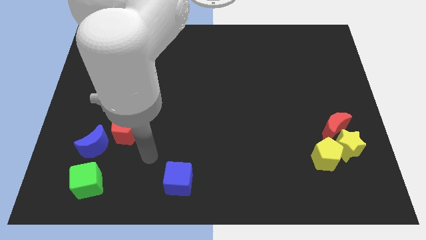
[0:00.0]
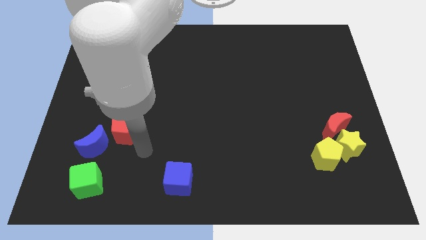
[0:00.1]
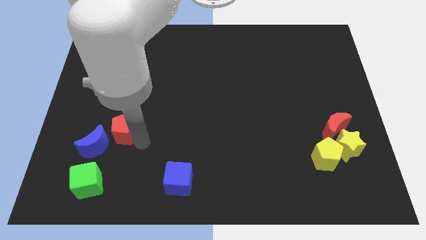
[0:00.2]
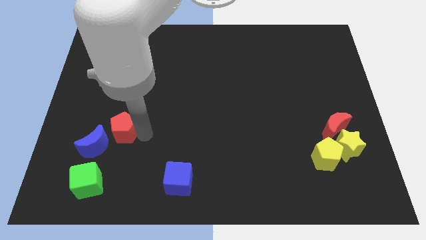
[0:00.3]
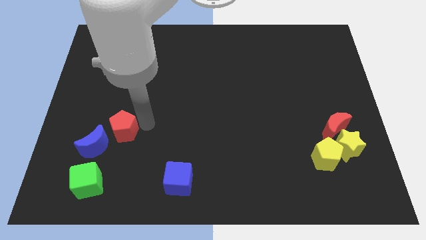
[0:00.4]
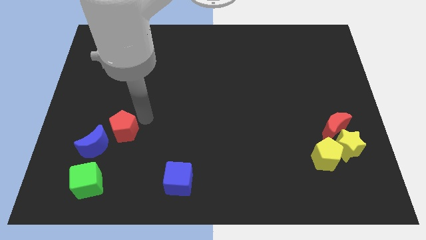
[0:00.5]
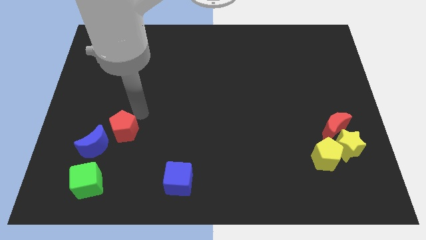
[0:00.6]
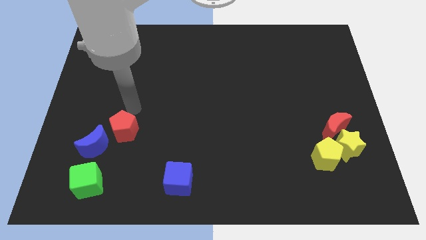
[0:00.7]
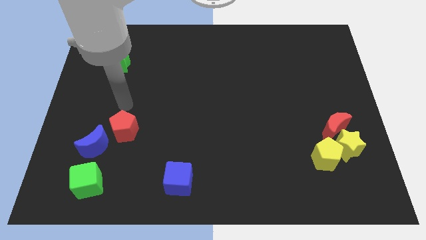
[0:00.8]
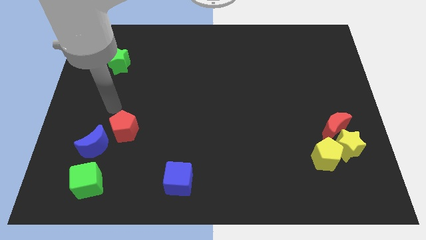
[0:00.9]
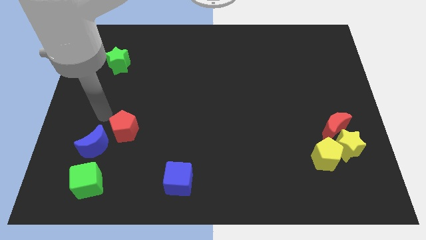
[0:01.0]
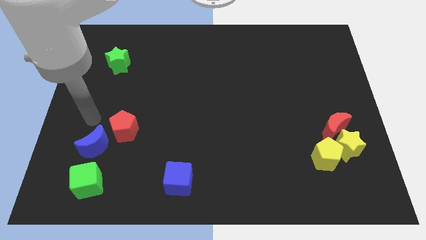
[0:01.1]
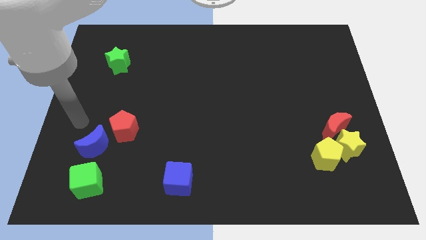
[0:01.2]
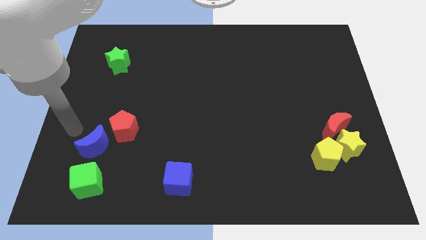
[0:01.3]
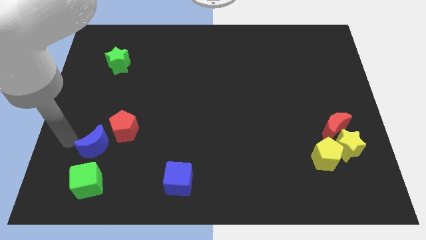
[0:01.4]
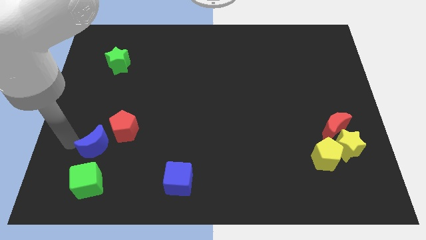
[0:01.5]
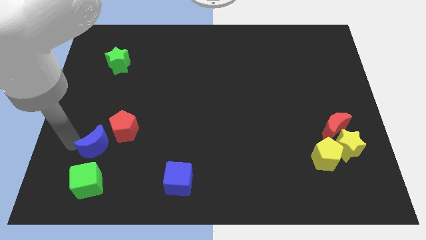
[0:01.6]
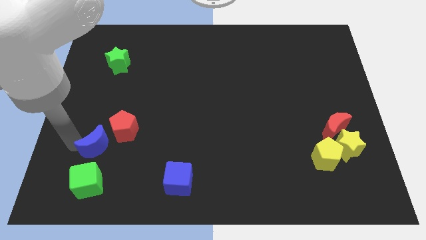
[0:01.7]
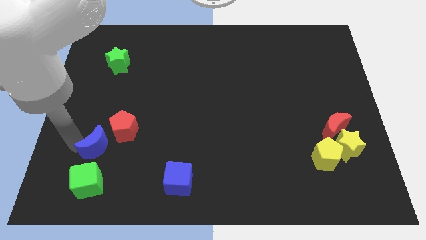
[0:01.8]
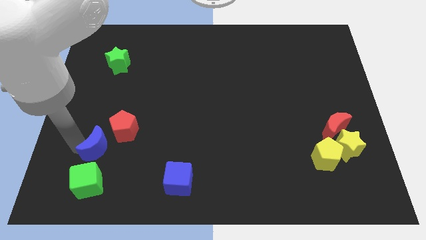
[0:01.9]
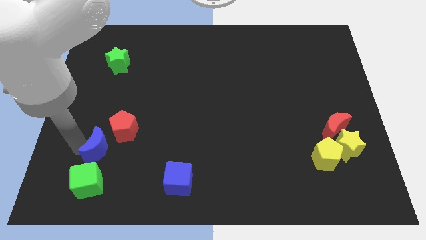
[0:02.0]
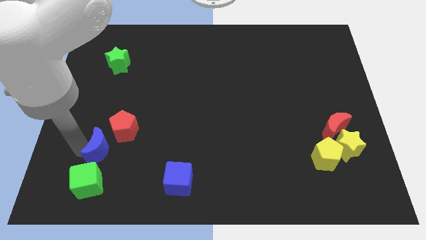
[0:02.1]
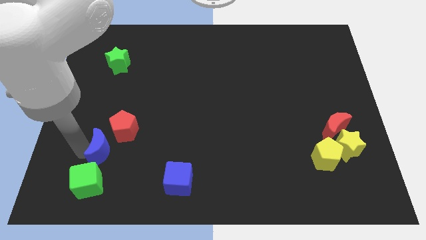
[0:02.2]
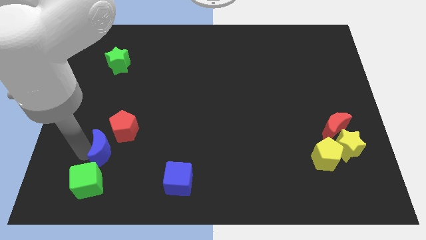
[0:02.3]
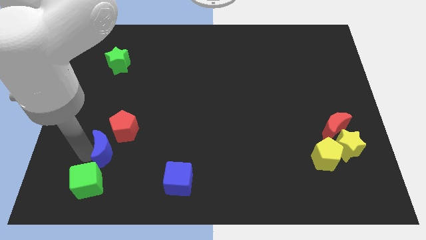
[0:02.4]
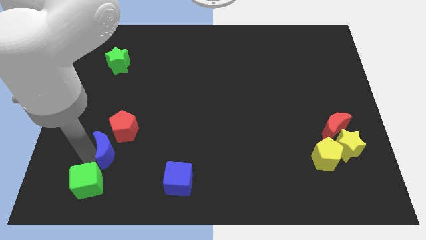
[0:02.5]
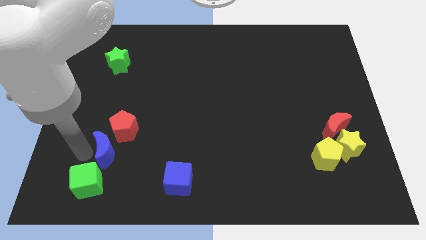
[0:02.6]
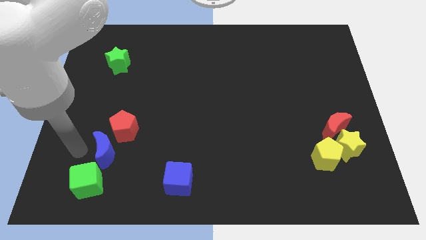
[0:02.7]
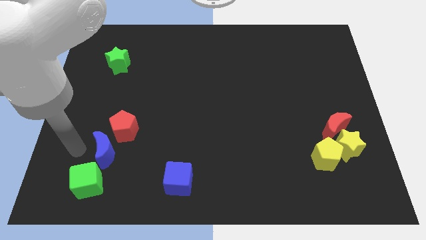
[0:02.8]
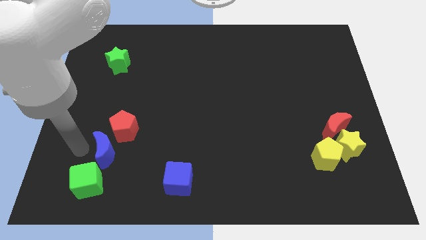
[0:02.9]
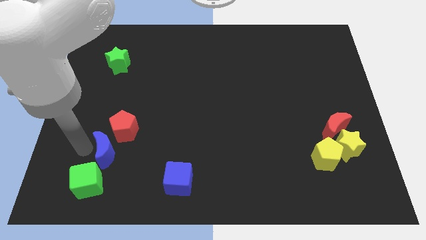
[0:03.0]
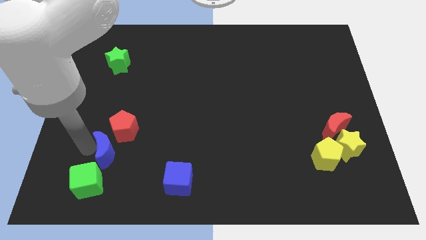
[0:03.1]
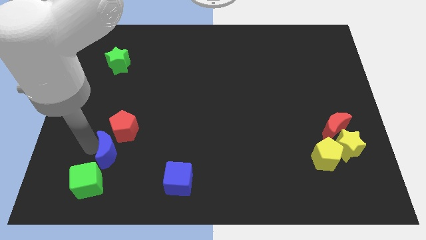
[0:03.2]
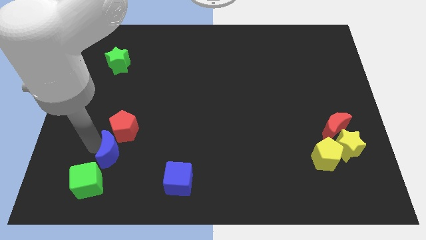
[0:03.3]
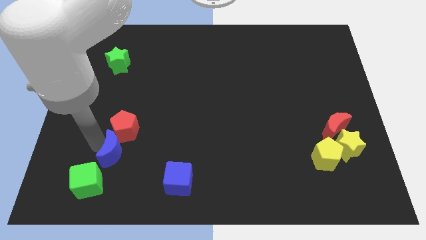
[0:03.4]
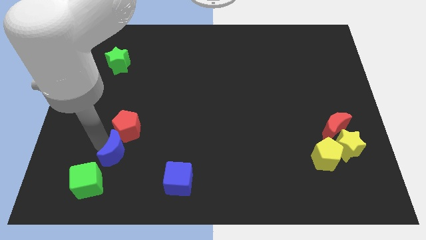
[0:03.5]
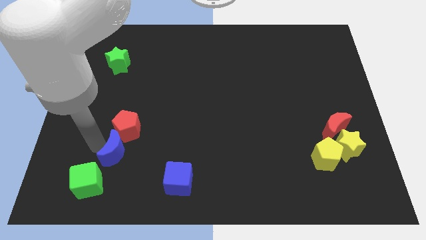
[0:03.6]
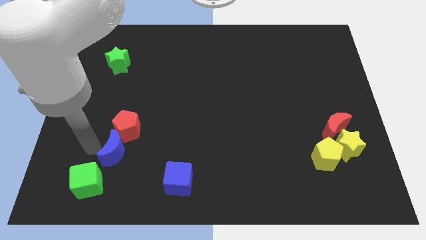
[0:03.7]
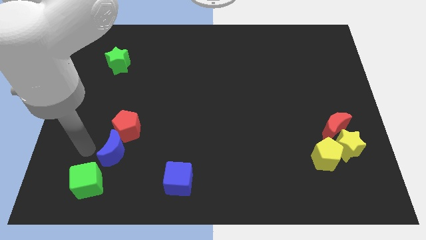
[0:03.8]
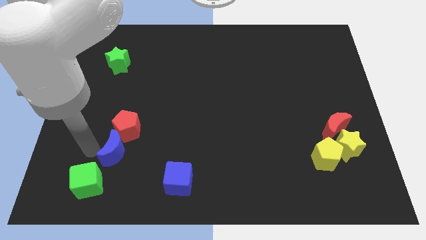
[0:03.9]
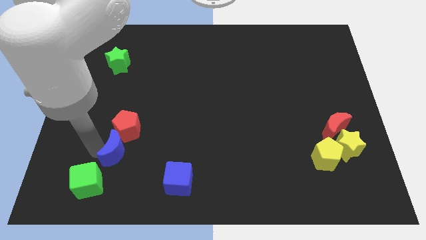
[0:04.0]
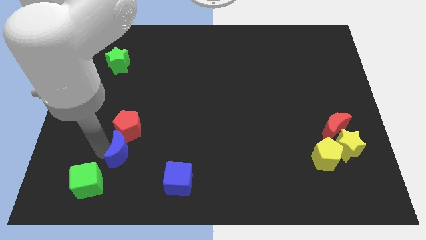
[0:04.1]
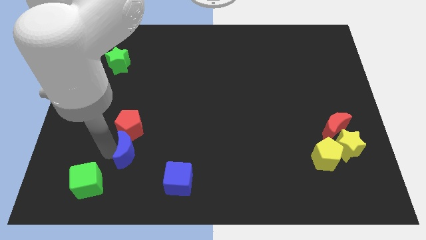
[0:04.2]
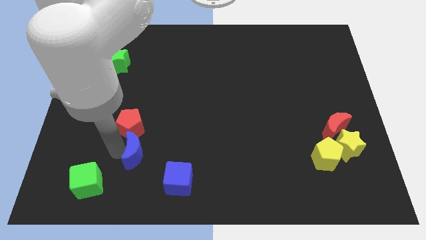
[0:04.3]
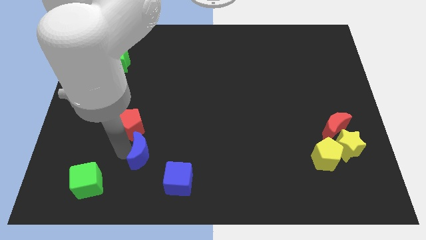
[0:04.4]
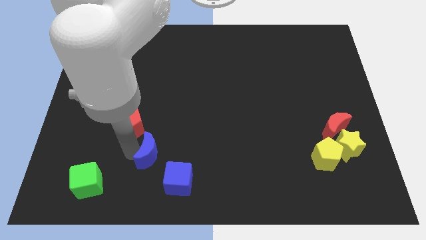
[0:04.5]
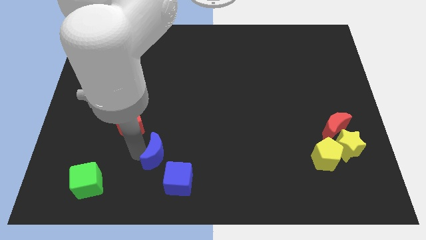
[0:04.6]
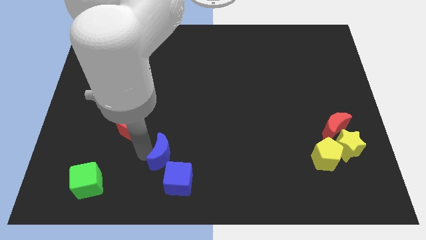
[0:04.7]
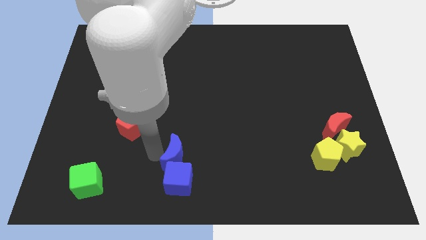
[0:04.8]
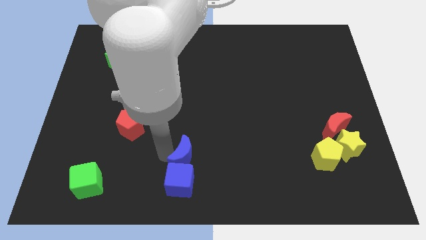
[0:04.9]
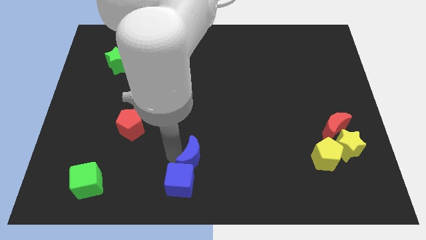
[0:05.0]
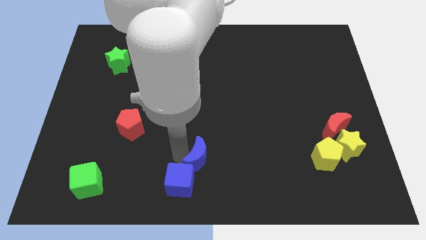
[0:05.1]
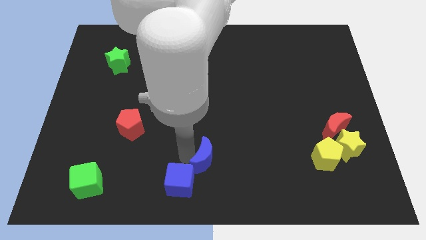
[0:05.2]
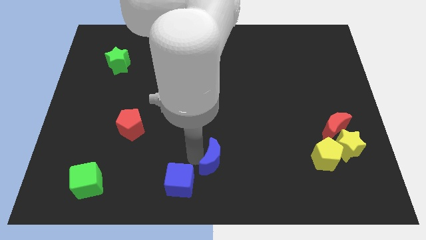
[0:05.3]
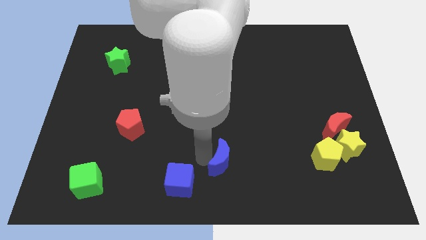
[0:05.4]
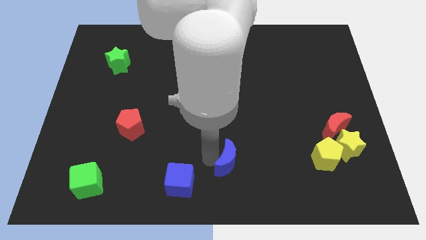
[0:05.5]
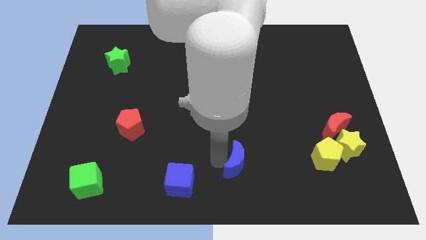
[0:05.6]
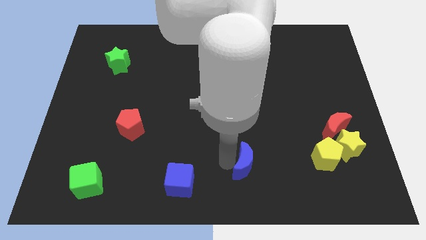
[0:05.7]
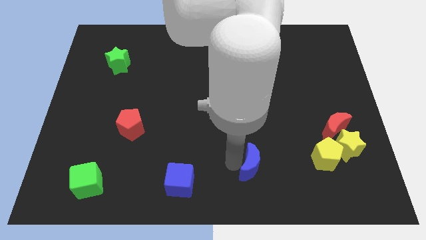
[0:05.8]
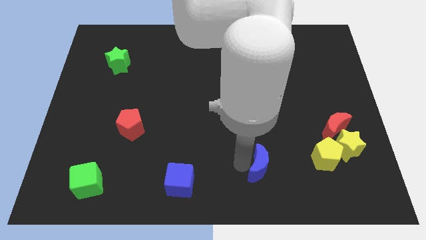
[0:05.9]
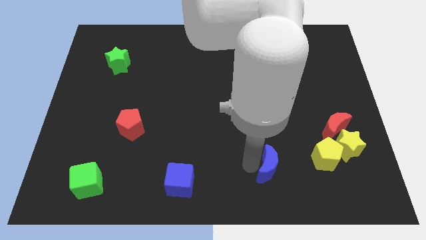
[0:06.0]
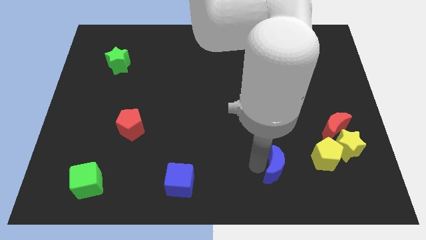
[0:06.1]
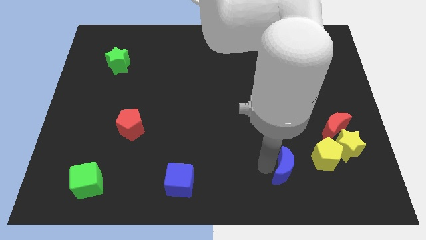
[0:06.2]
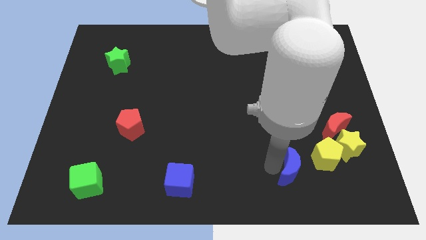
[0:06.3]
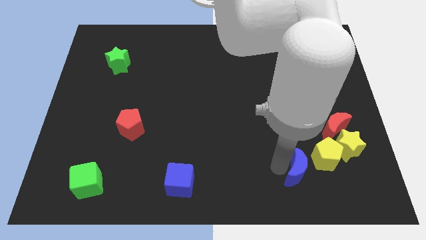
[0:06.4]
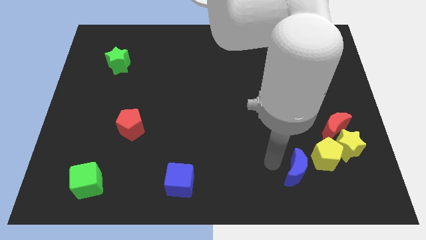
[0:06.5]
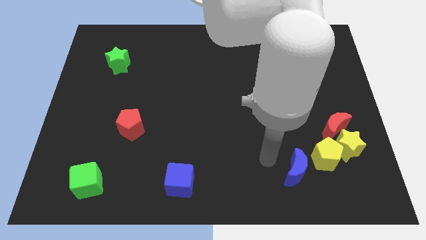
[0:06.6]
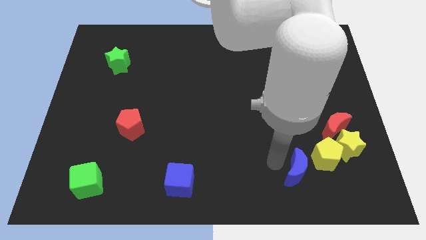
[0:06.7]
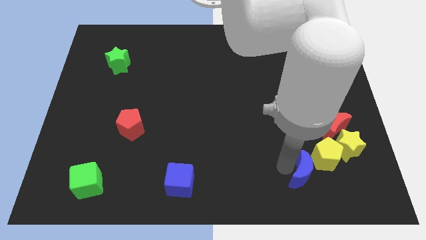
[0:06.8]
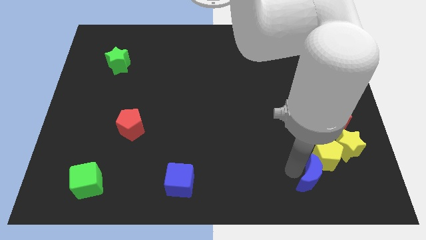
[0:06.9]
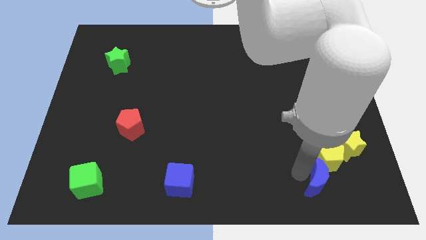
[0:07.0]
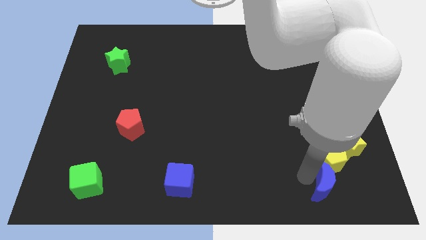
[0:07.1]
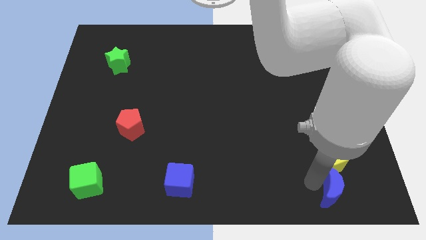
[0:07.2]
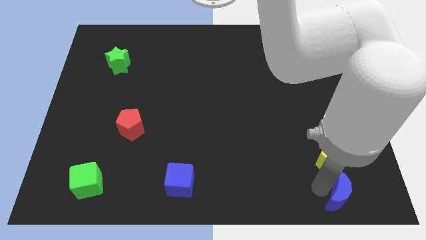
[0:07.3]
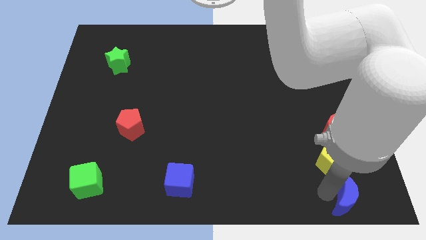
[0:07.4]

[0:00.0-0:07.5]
move the blue moon to the bottom right corner
